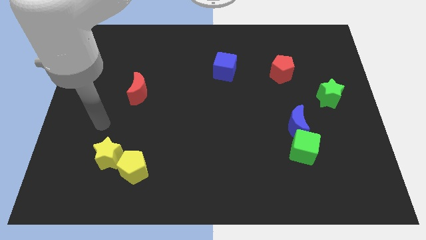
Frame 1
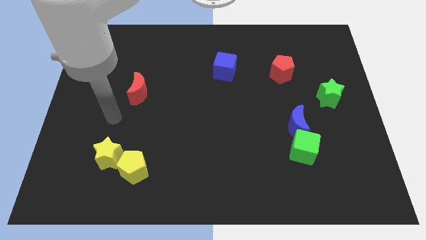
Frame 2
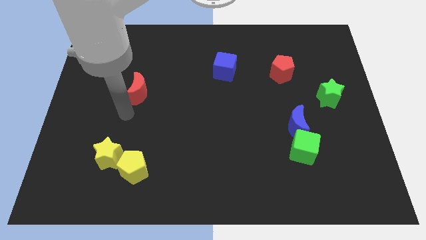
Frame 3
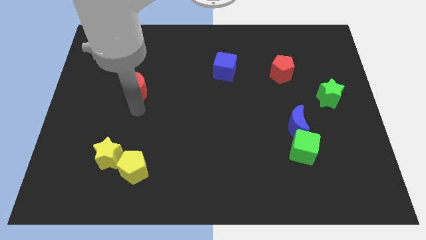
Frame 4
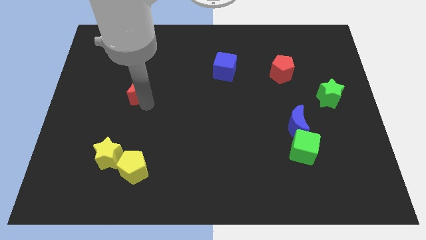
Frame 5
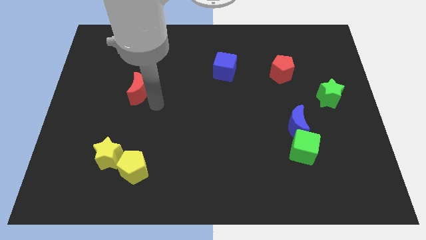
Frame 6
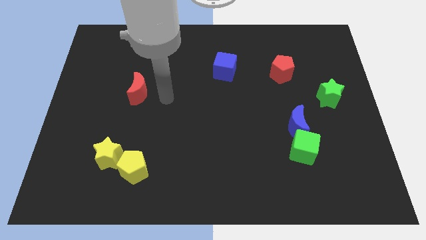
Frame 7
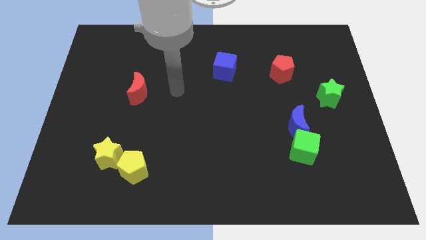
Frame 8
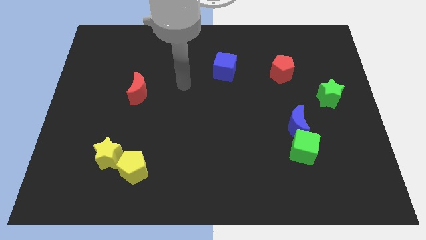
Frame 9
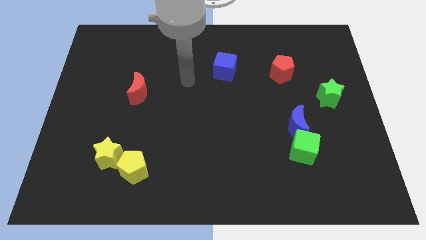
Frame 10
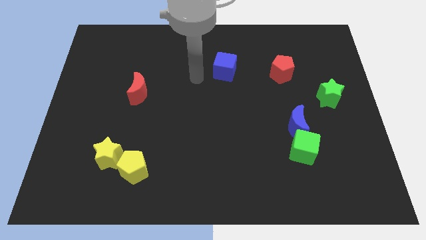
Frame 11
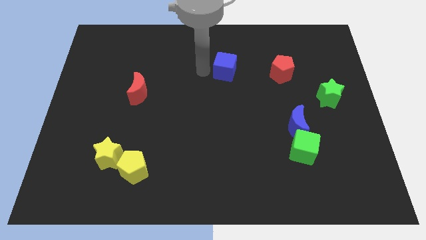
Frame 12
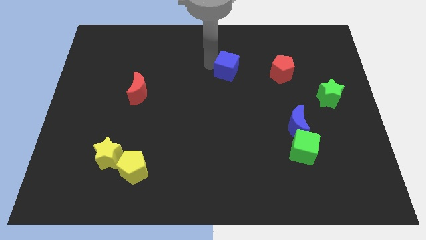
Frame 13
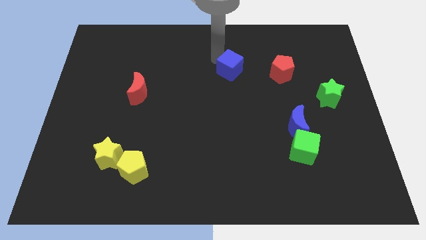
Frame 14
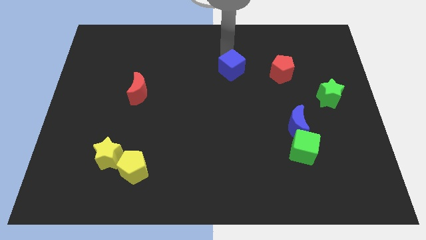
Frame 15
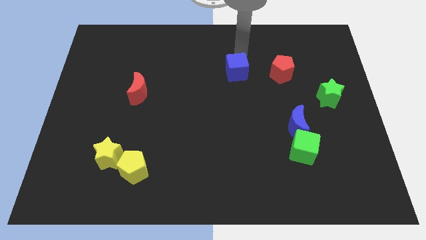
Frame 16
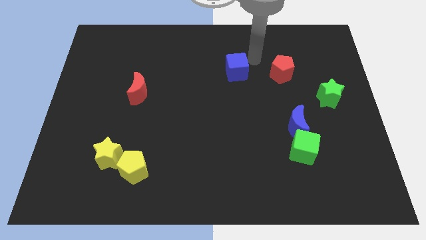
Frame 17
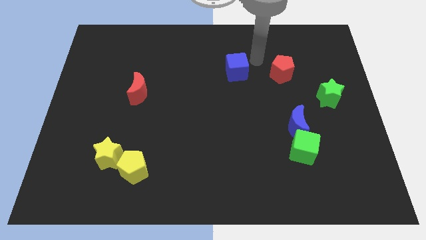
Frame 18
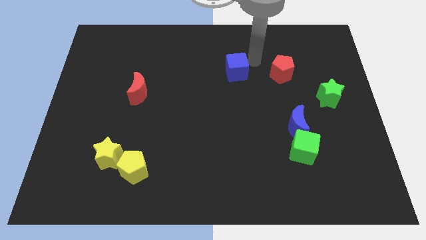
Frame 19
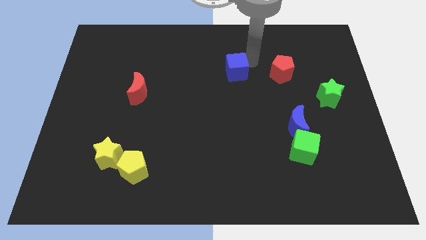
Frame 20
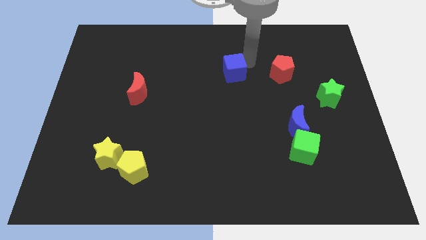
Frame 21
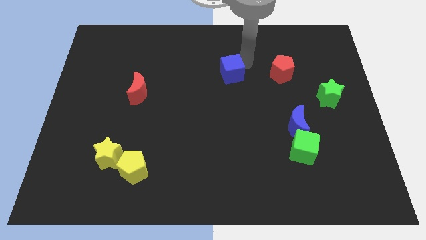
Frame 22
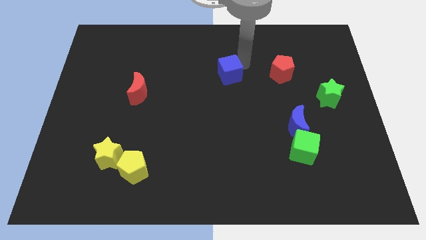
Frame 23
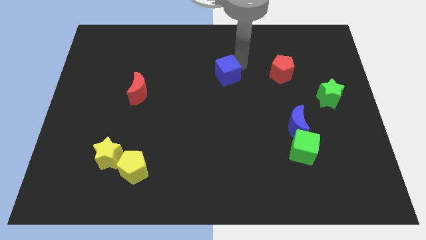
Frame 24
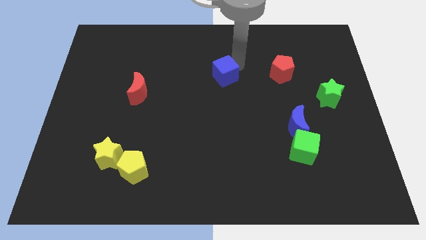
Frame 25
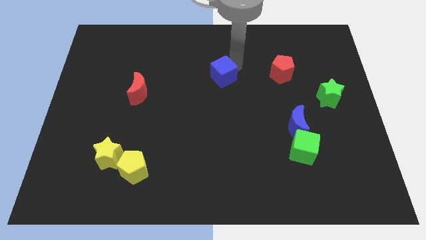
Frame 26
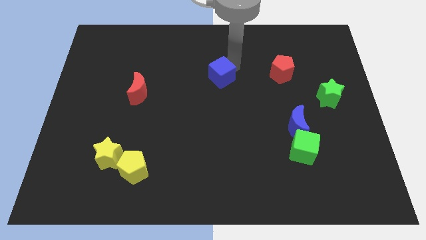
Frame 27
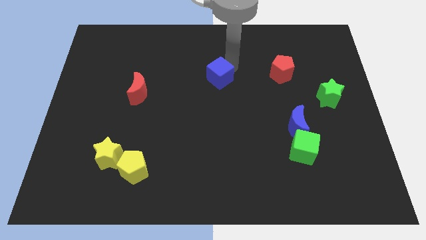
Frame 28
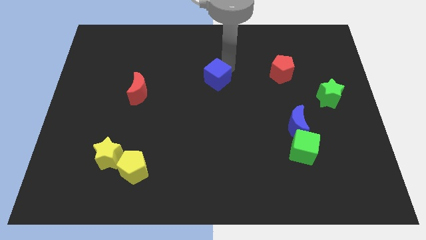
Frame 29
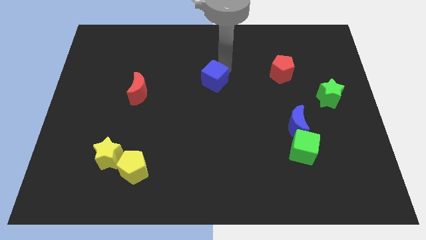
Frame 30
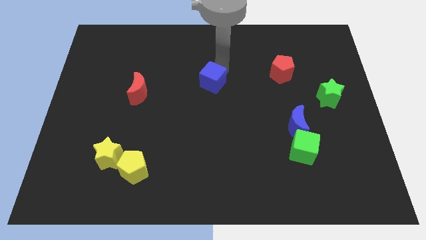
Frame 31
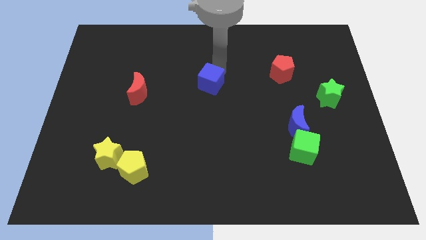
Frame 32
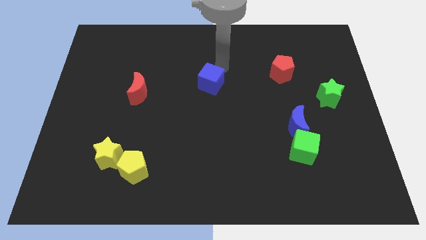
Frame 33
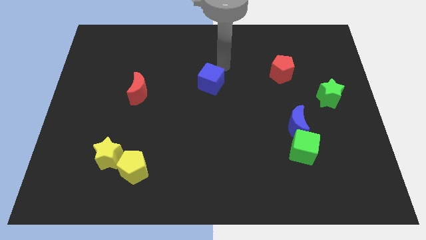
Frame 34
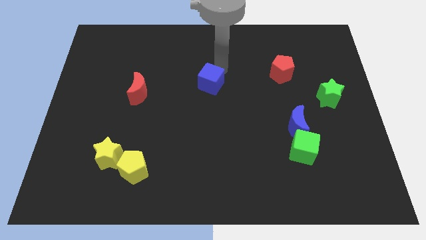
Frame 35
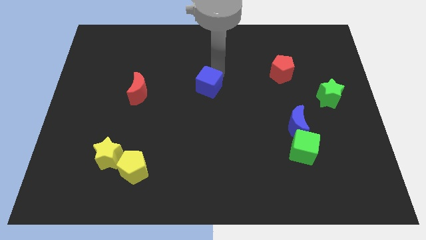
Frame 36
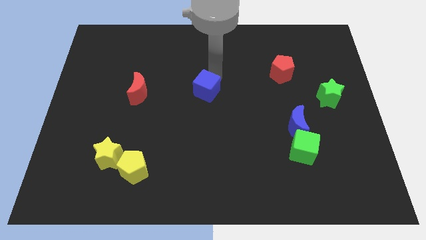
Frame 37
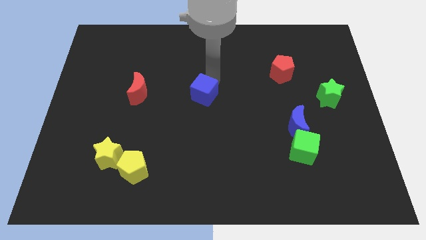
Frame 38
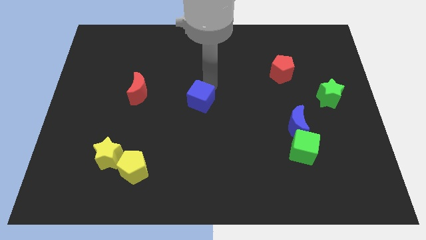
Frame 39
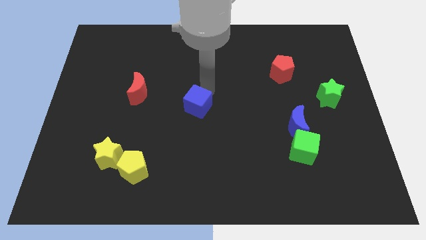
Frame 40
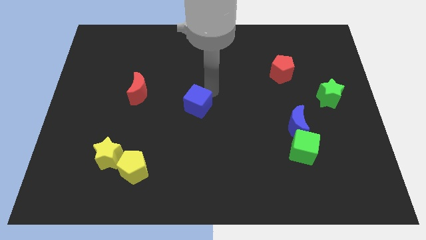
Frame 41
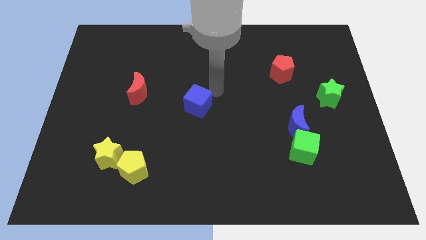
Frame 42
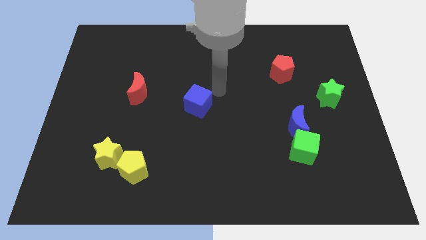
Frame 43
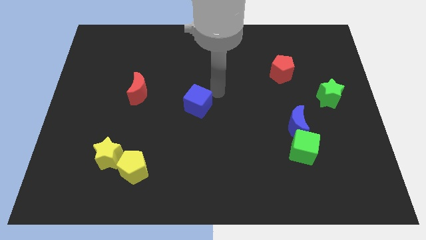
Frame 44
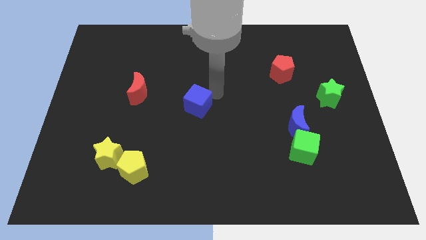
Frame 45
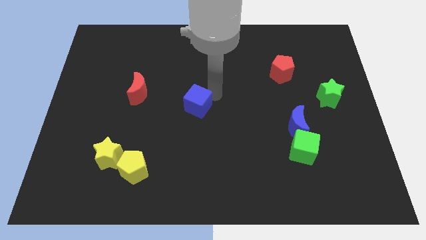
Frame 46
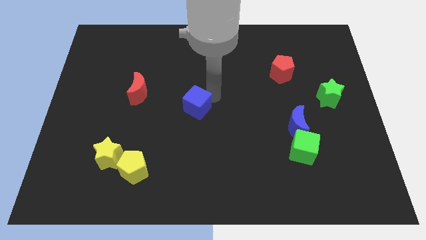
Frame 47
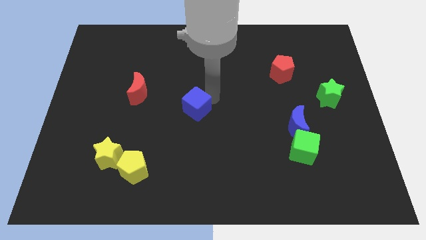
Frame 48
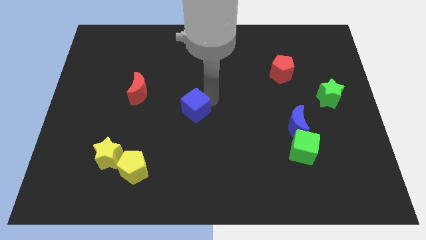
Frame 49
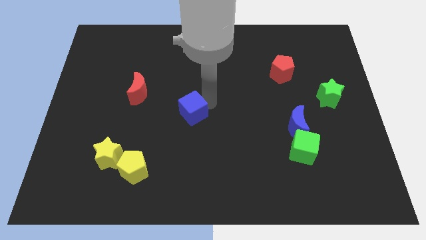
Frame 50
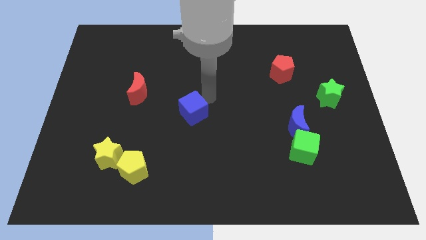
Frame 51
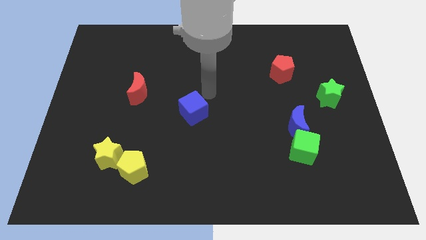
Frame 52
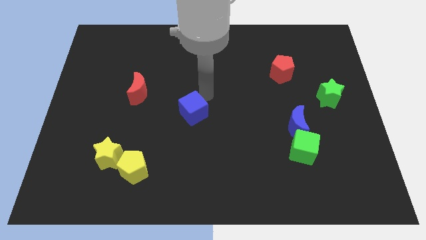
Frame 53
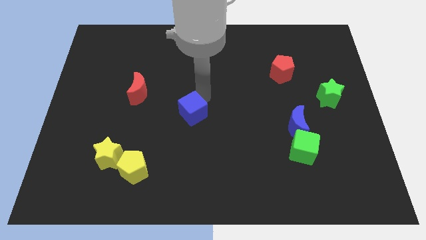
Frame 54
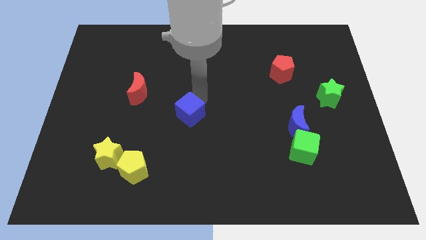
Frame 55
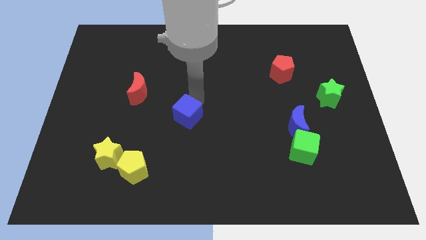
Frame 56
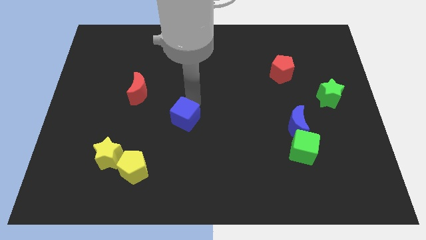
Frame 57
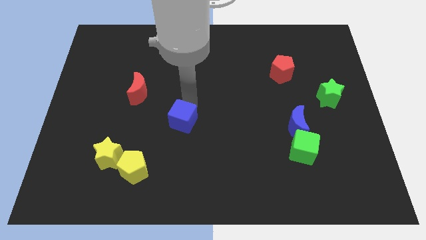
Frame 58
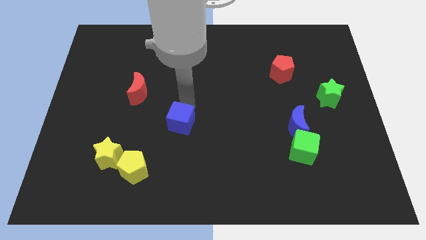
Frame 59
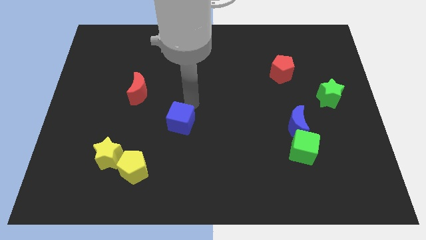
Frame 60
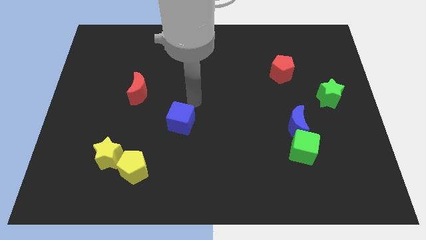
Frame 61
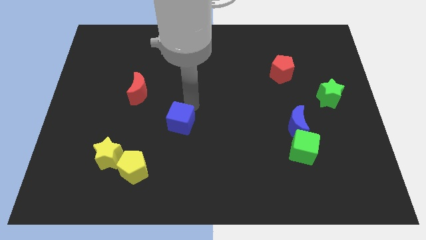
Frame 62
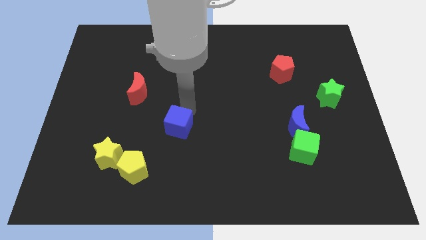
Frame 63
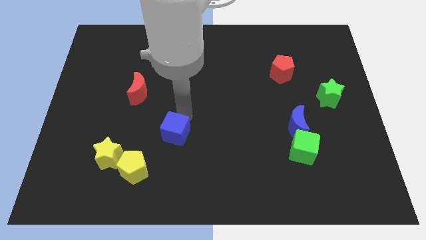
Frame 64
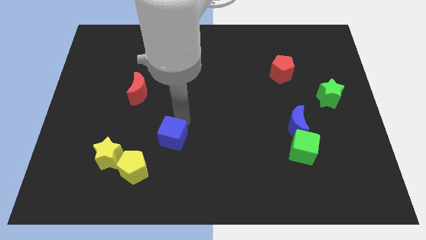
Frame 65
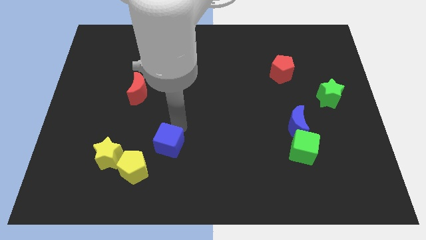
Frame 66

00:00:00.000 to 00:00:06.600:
move the blue cube to the right of the yellow star

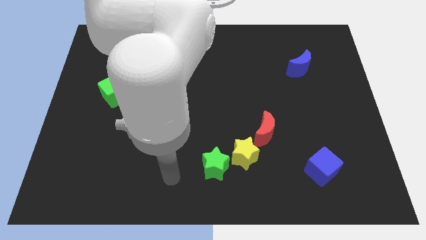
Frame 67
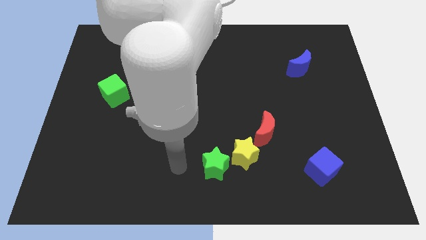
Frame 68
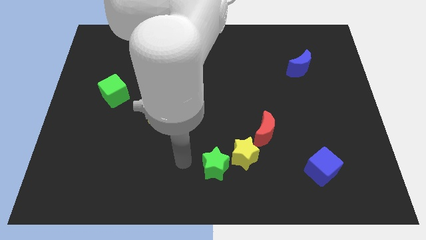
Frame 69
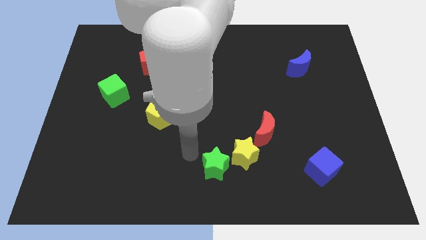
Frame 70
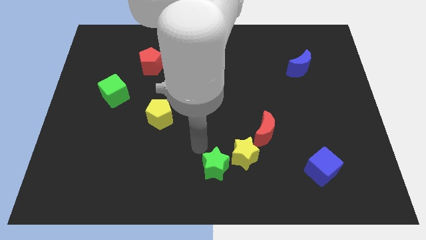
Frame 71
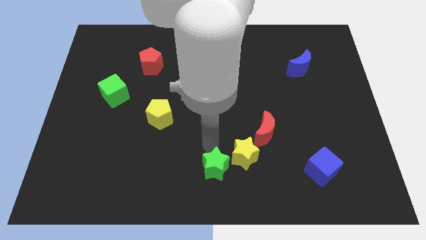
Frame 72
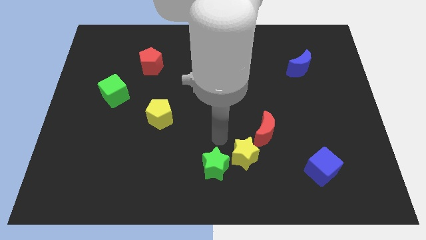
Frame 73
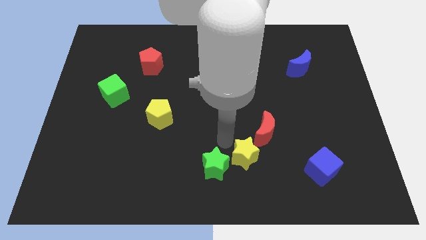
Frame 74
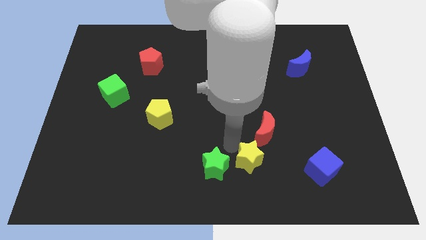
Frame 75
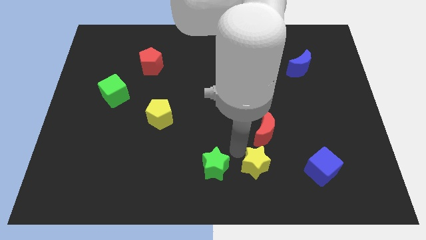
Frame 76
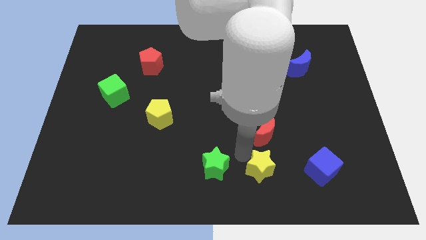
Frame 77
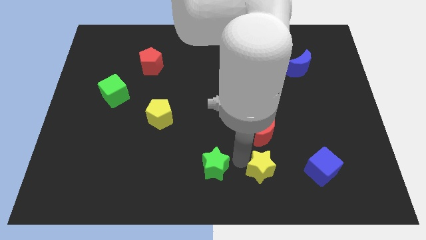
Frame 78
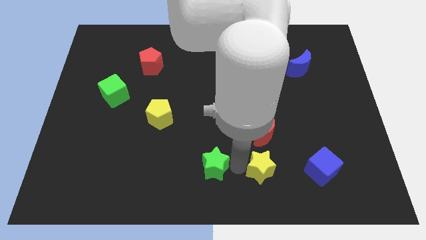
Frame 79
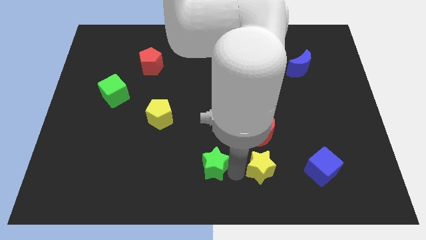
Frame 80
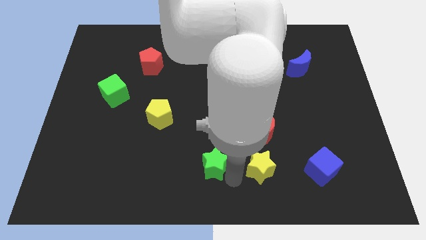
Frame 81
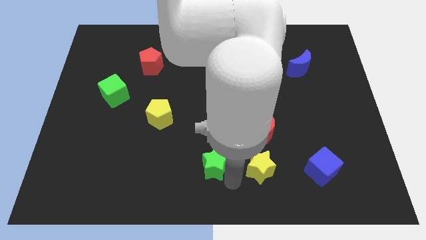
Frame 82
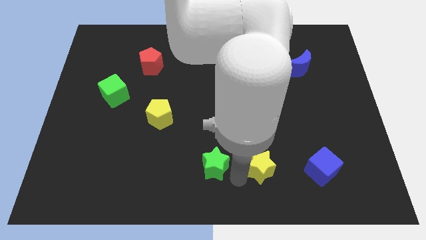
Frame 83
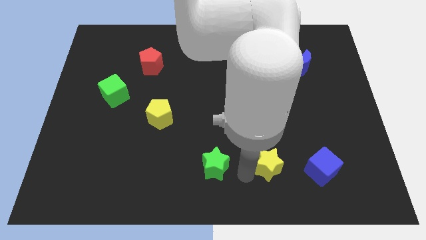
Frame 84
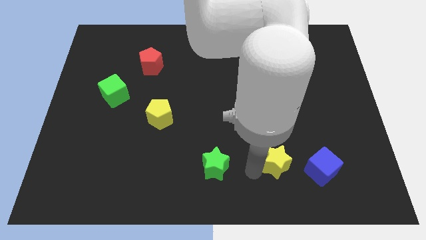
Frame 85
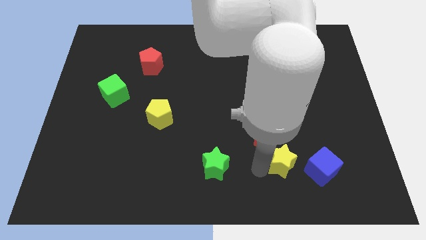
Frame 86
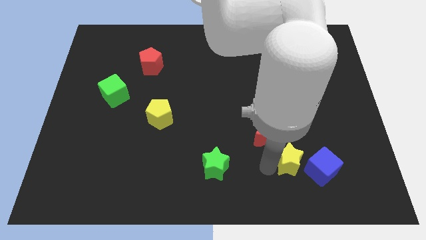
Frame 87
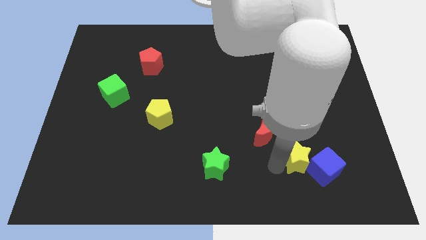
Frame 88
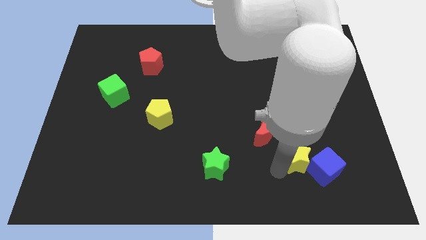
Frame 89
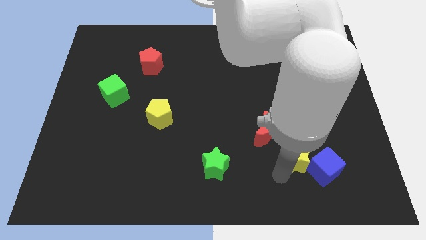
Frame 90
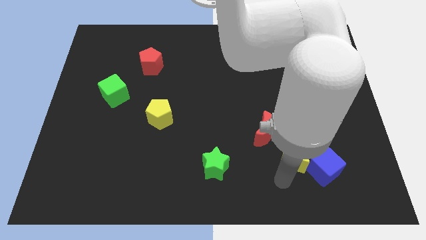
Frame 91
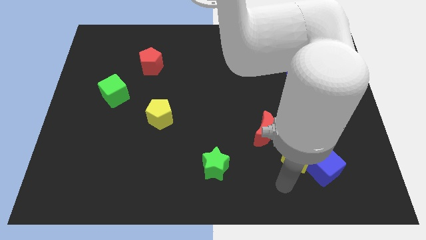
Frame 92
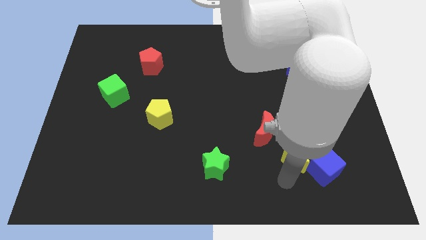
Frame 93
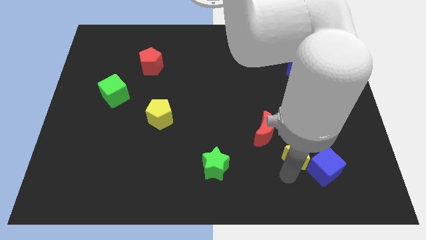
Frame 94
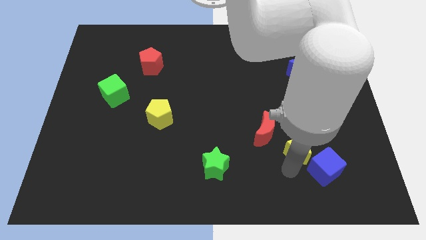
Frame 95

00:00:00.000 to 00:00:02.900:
move the yellow star to the right of the red moon
